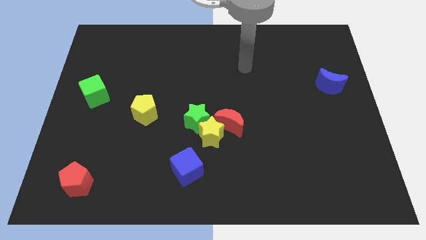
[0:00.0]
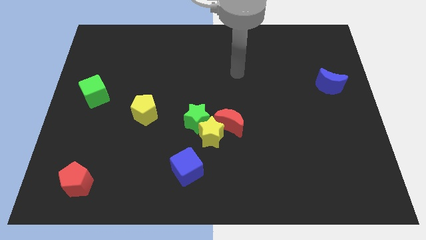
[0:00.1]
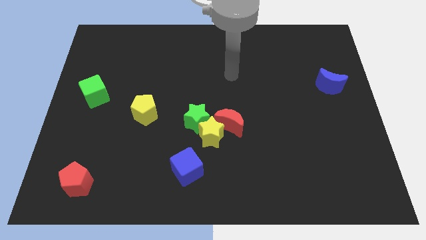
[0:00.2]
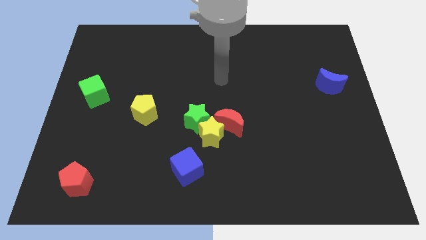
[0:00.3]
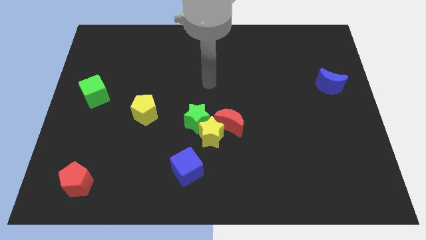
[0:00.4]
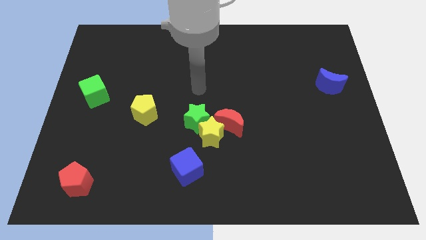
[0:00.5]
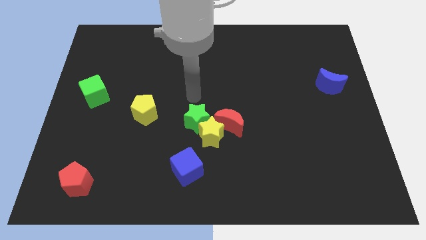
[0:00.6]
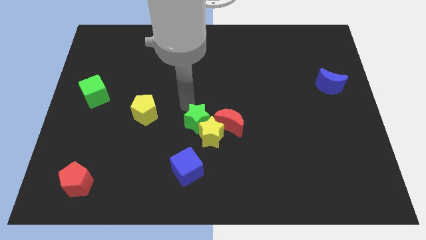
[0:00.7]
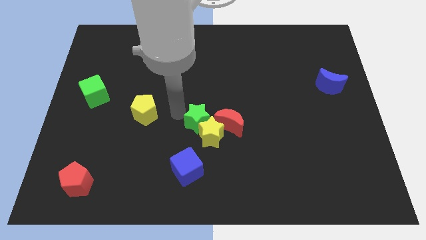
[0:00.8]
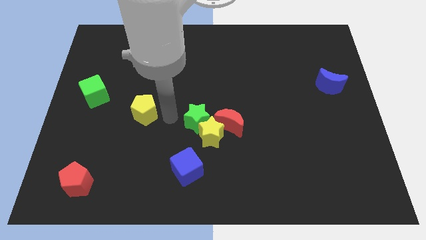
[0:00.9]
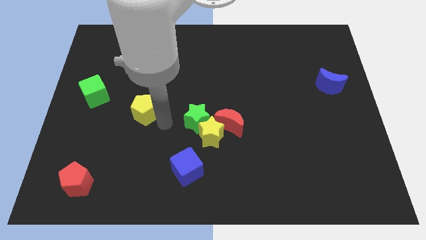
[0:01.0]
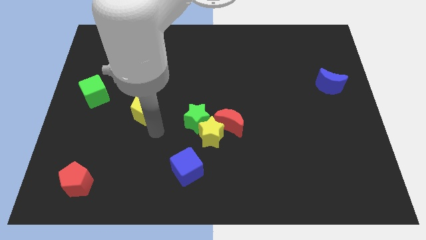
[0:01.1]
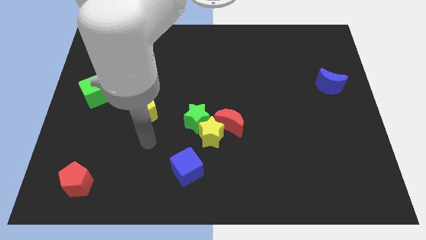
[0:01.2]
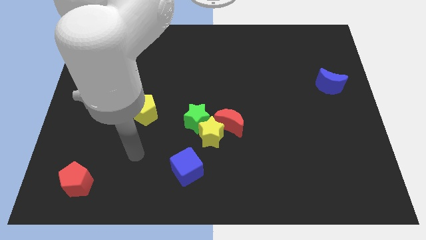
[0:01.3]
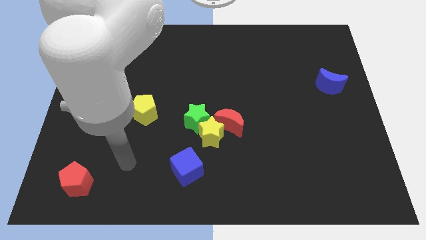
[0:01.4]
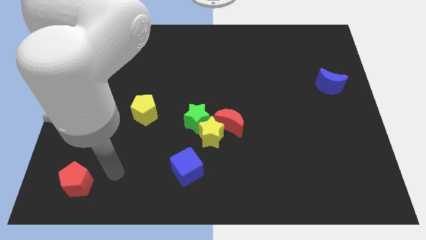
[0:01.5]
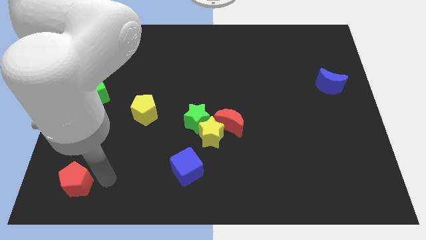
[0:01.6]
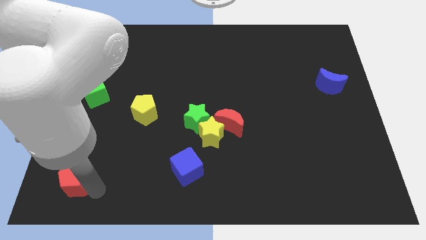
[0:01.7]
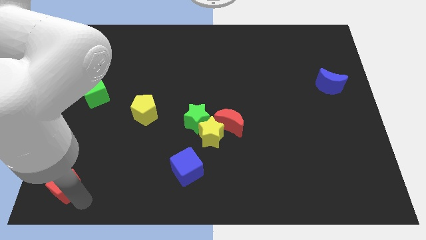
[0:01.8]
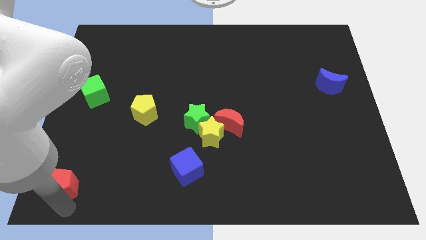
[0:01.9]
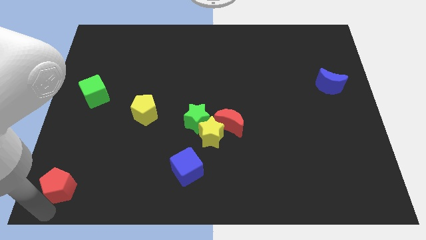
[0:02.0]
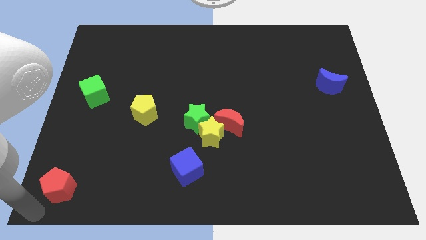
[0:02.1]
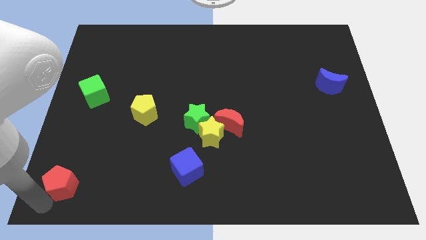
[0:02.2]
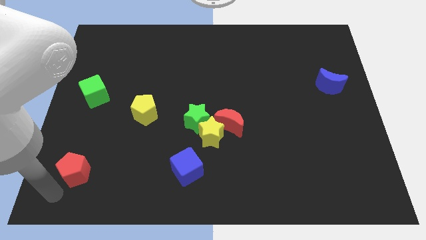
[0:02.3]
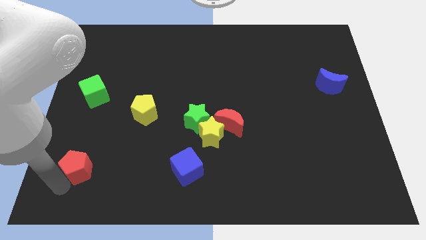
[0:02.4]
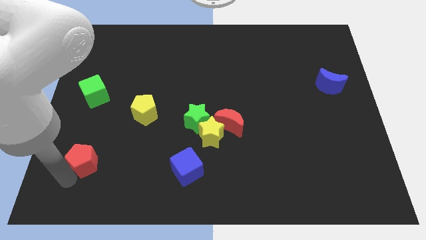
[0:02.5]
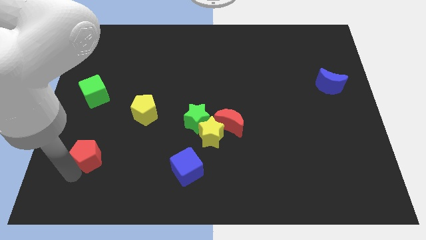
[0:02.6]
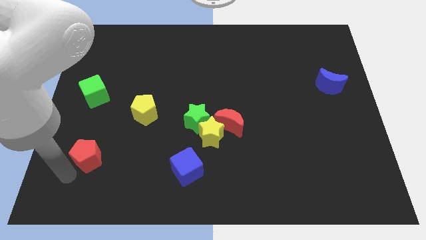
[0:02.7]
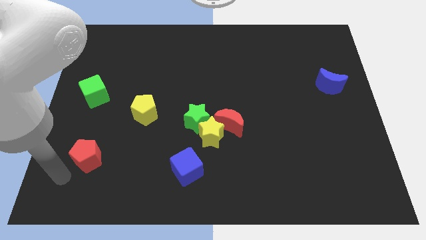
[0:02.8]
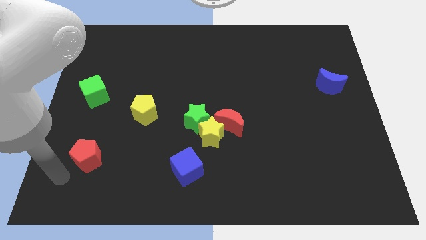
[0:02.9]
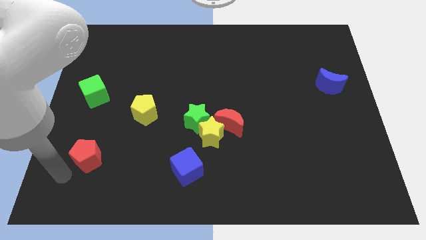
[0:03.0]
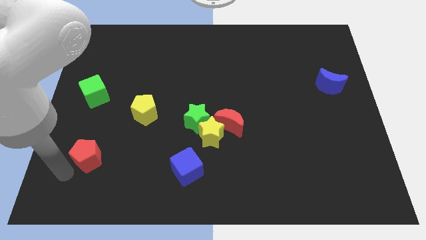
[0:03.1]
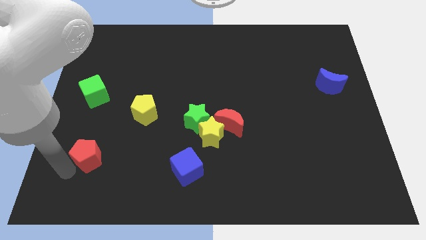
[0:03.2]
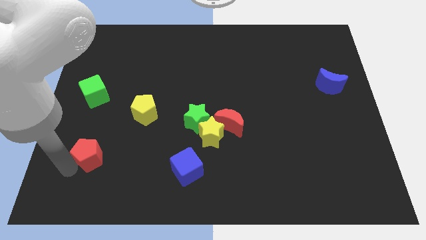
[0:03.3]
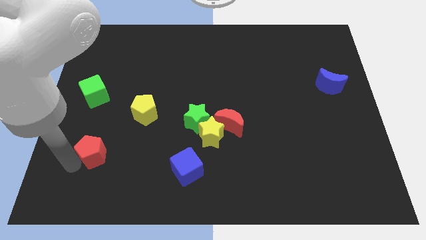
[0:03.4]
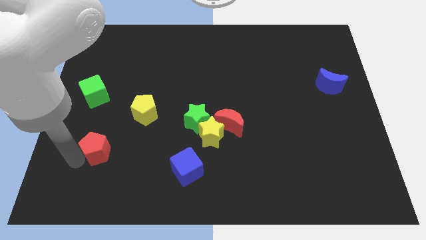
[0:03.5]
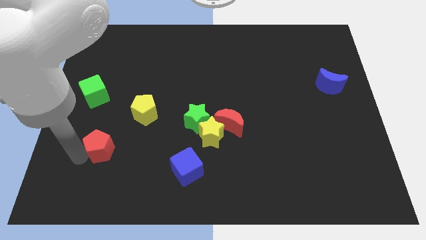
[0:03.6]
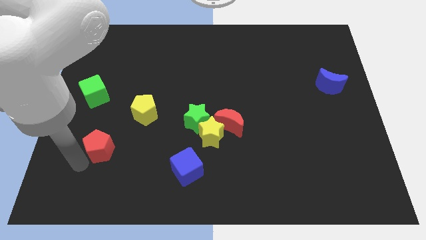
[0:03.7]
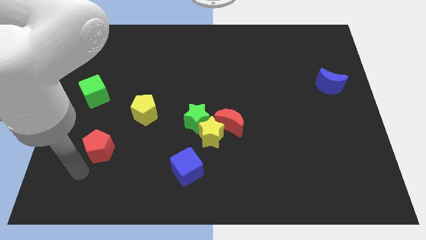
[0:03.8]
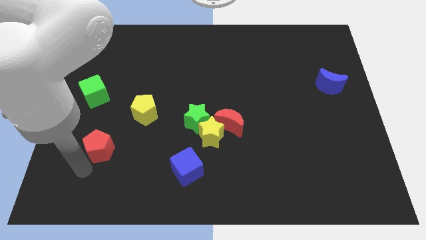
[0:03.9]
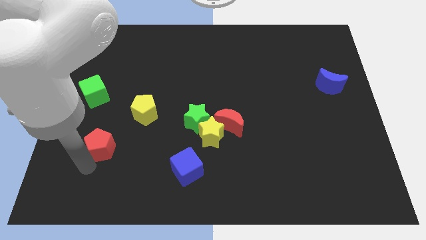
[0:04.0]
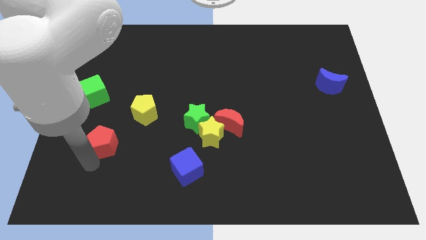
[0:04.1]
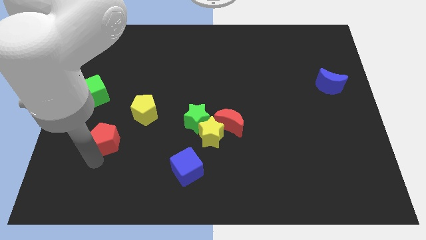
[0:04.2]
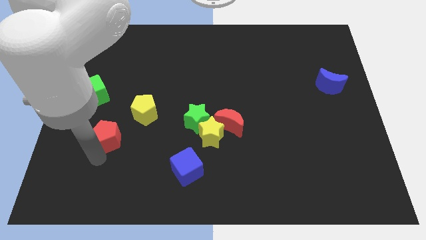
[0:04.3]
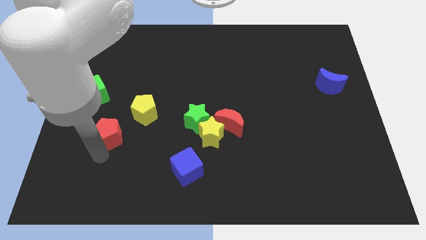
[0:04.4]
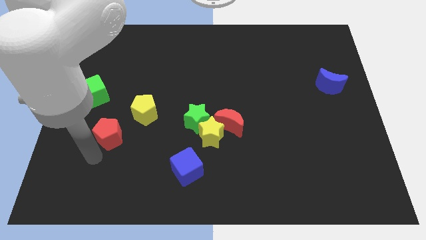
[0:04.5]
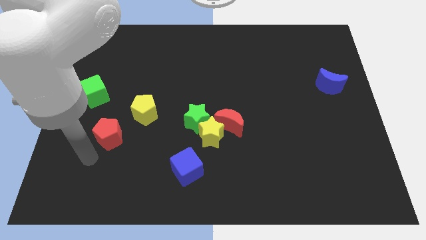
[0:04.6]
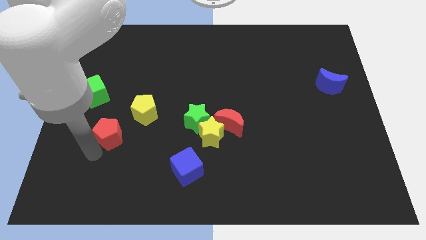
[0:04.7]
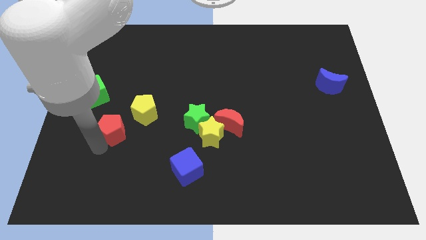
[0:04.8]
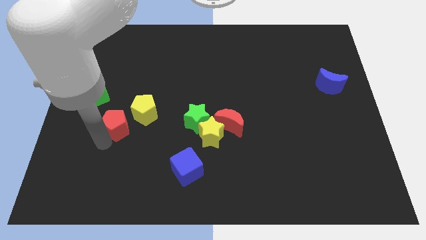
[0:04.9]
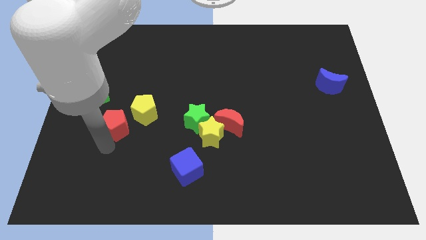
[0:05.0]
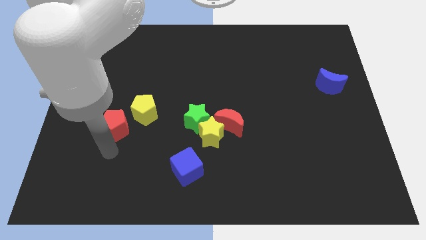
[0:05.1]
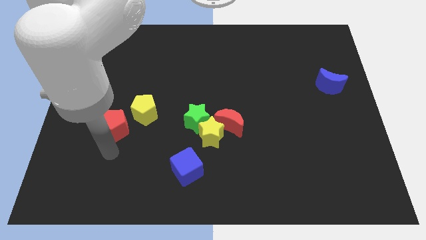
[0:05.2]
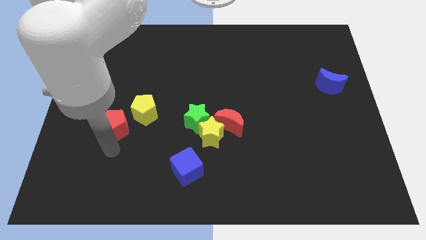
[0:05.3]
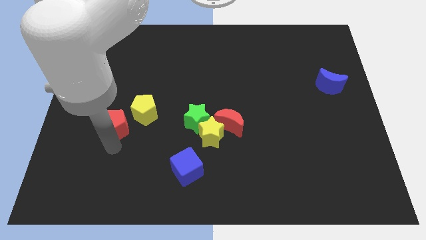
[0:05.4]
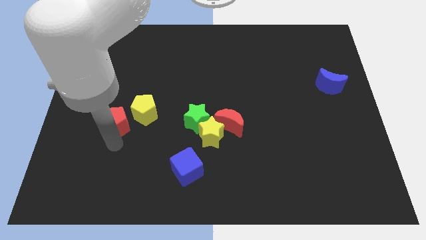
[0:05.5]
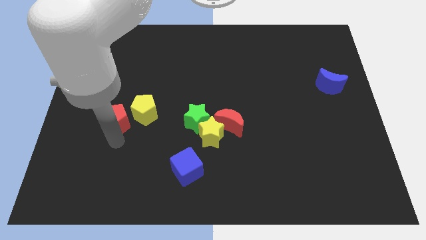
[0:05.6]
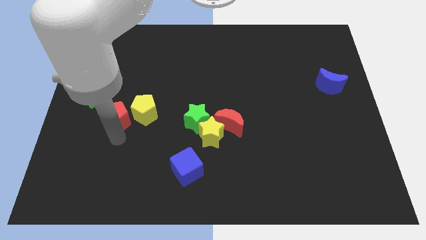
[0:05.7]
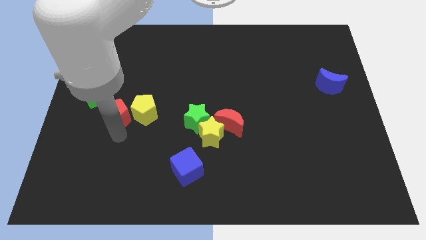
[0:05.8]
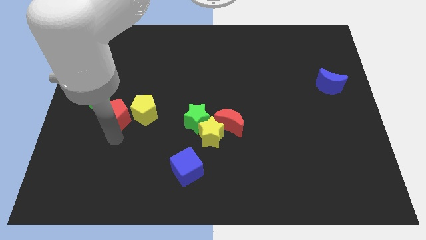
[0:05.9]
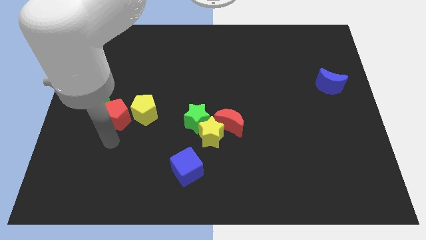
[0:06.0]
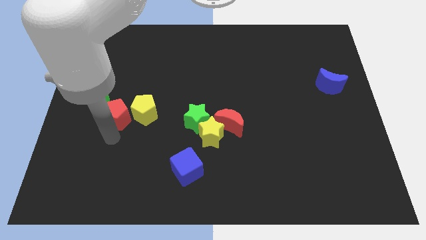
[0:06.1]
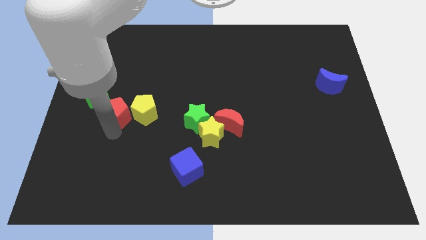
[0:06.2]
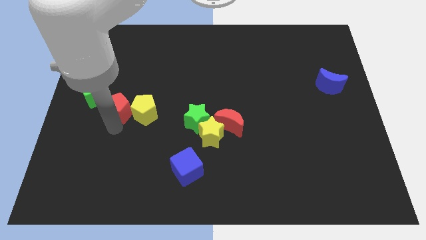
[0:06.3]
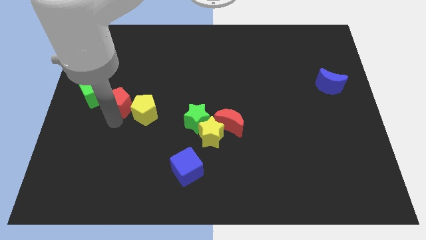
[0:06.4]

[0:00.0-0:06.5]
push the red pentagon right of the green cube

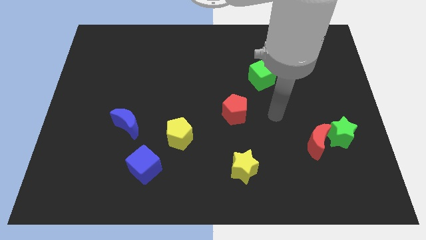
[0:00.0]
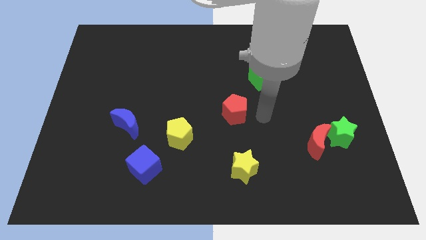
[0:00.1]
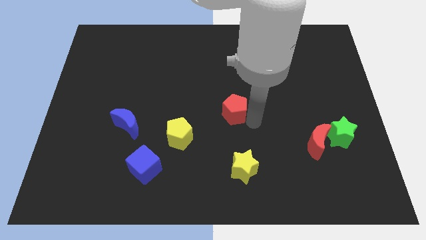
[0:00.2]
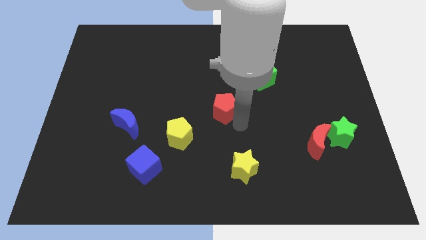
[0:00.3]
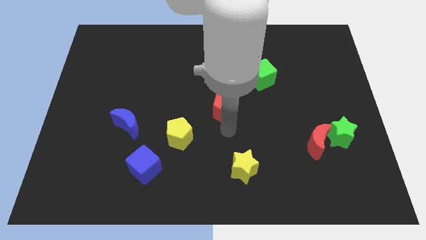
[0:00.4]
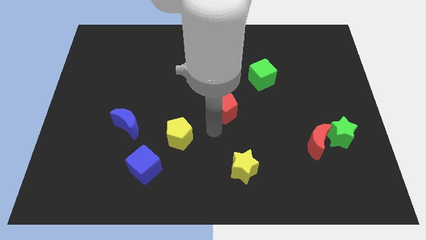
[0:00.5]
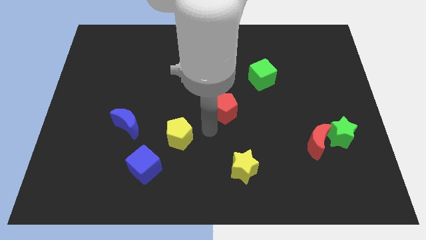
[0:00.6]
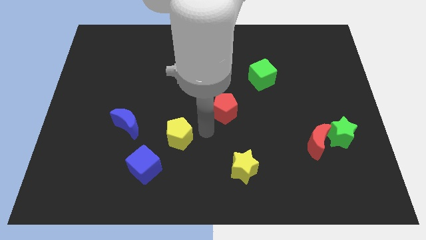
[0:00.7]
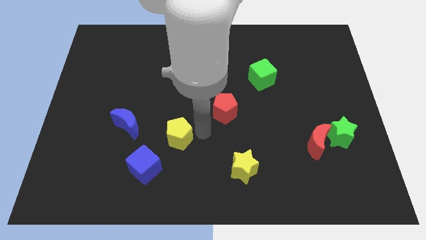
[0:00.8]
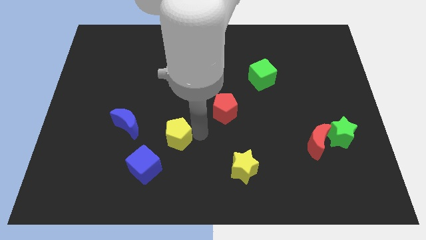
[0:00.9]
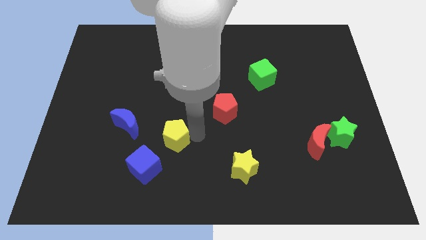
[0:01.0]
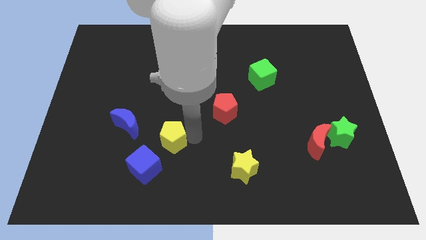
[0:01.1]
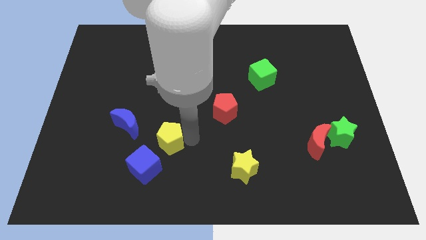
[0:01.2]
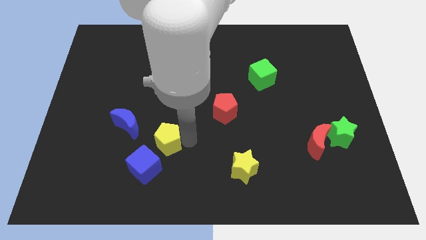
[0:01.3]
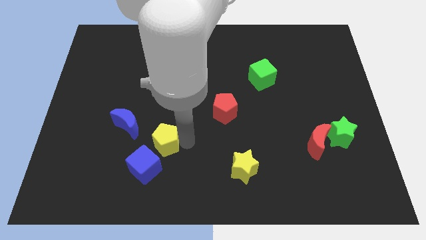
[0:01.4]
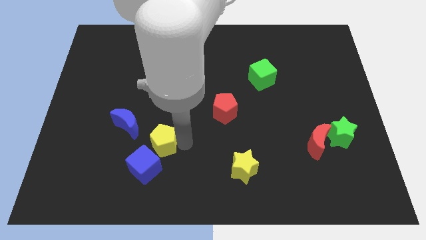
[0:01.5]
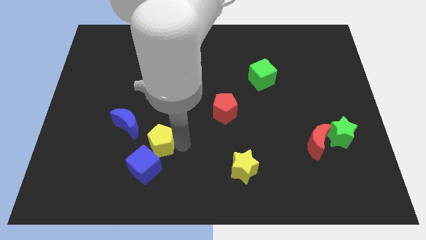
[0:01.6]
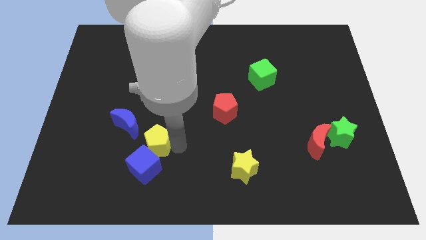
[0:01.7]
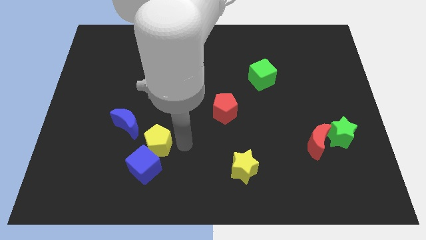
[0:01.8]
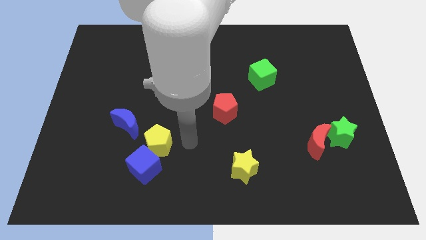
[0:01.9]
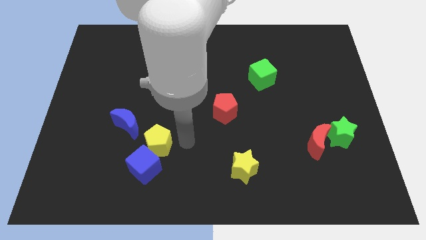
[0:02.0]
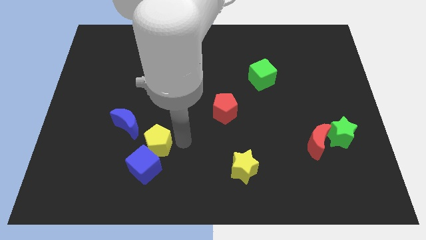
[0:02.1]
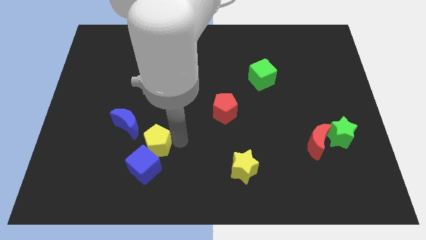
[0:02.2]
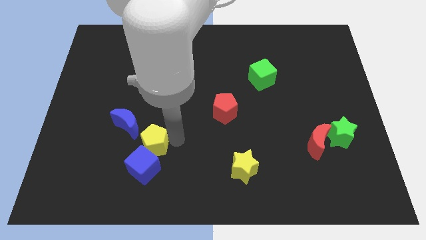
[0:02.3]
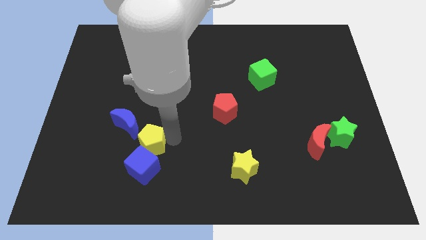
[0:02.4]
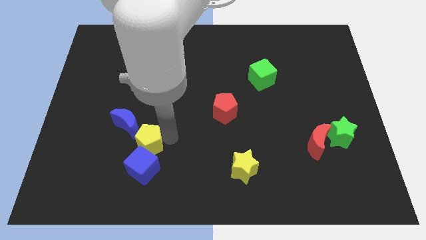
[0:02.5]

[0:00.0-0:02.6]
push the yellow pentagon diagonally up and to the left of the blue cube
